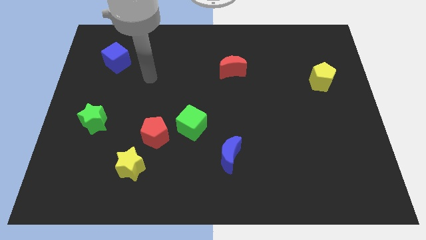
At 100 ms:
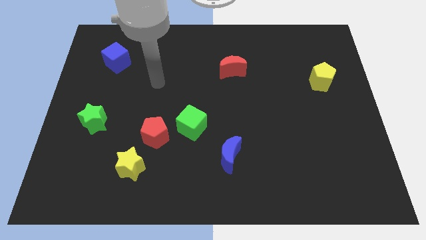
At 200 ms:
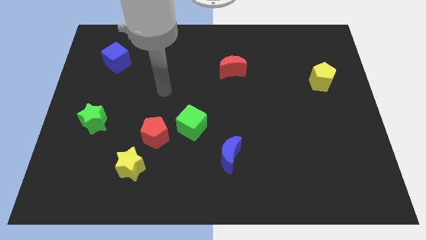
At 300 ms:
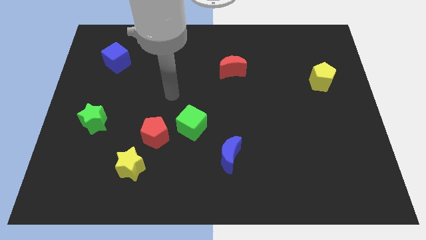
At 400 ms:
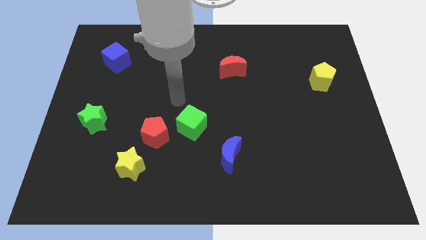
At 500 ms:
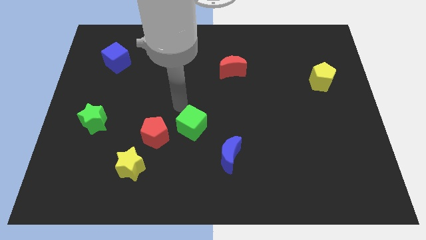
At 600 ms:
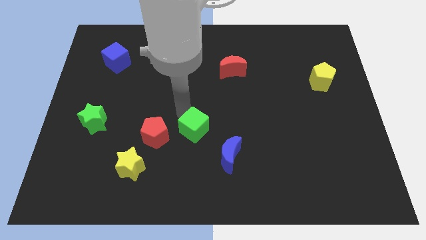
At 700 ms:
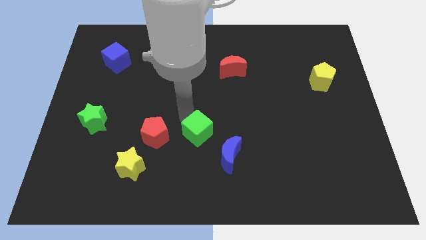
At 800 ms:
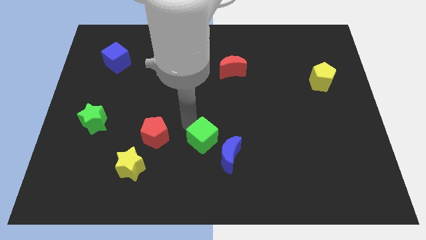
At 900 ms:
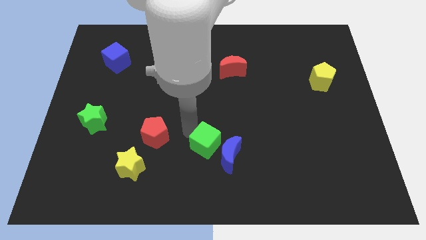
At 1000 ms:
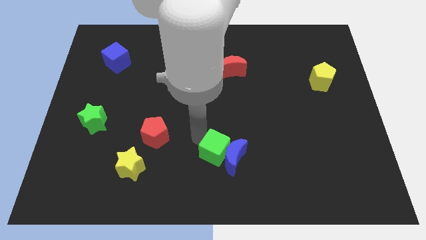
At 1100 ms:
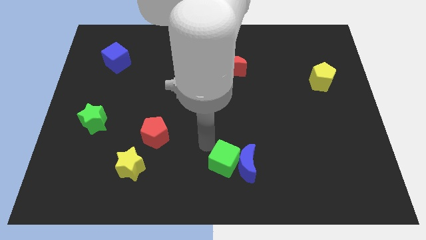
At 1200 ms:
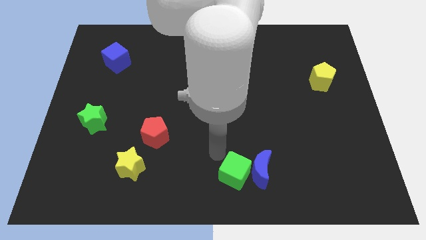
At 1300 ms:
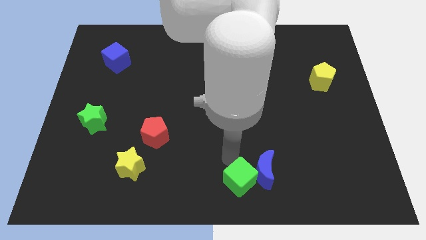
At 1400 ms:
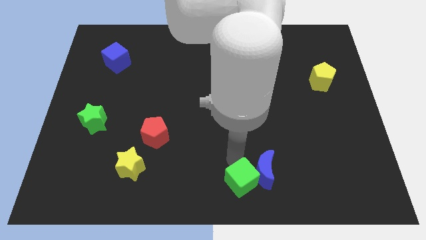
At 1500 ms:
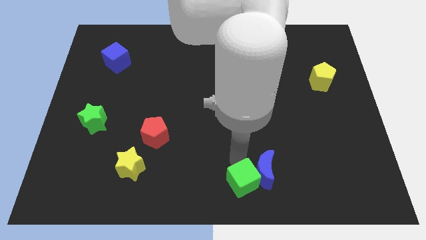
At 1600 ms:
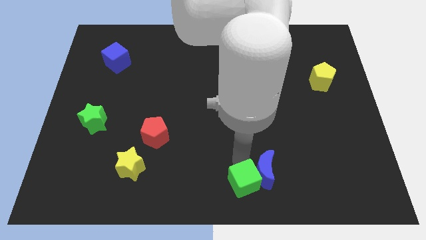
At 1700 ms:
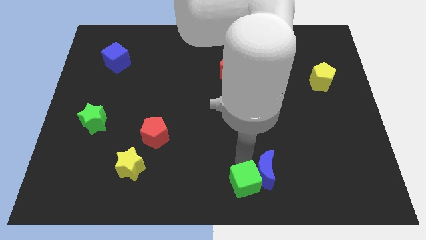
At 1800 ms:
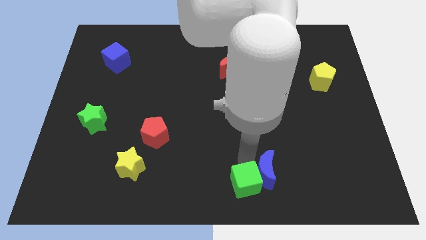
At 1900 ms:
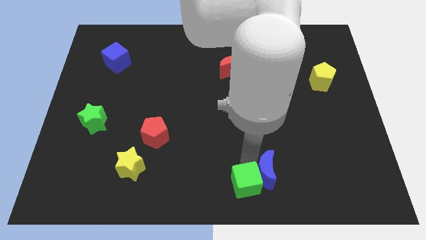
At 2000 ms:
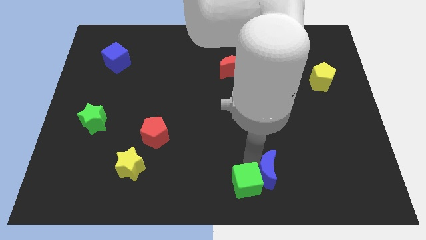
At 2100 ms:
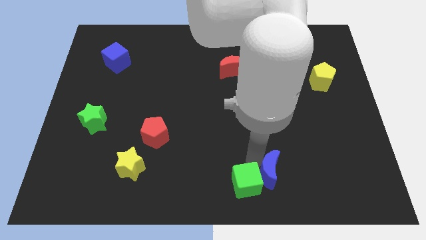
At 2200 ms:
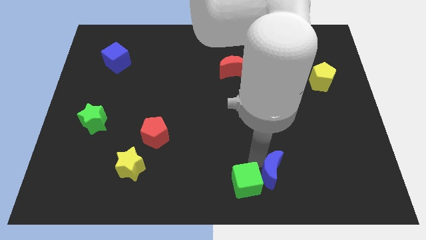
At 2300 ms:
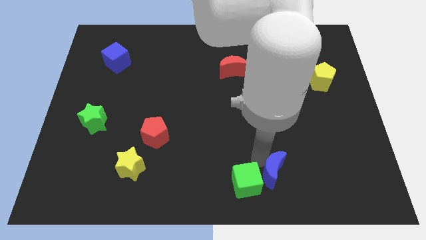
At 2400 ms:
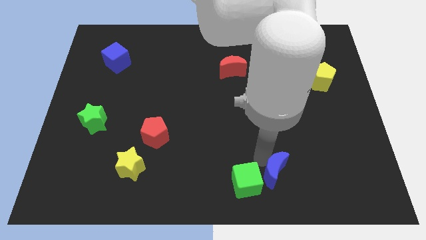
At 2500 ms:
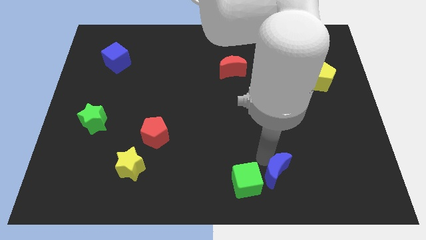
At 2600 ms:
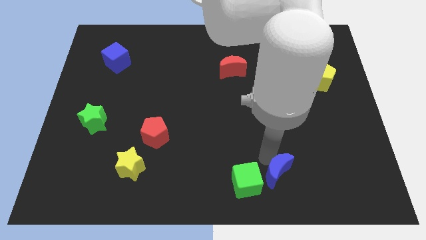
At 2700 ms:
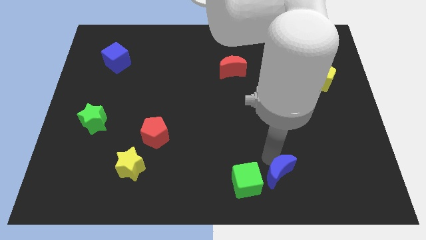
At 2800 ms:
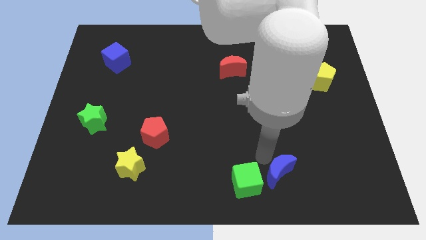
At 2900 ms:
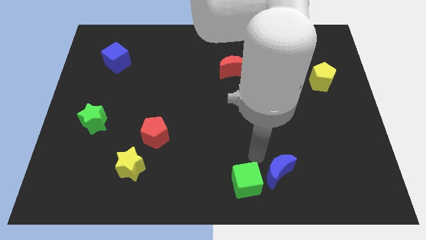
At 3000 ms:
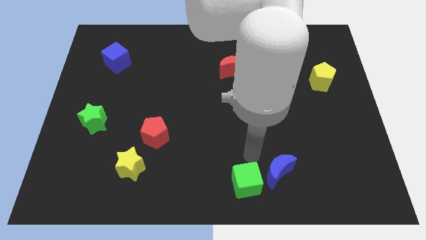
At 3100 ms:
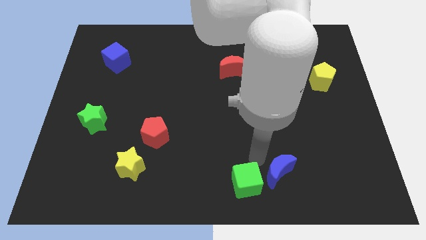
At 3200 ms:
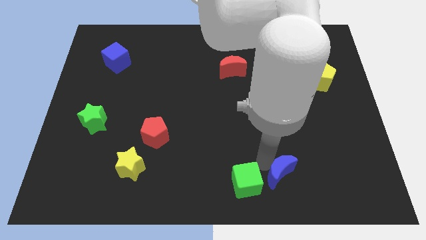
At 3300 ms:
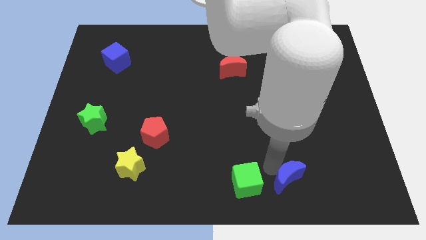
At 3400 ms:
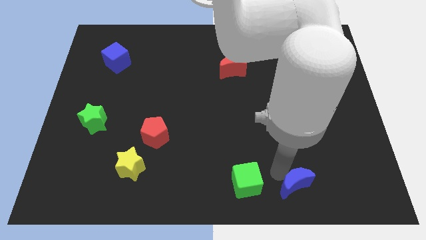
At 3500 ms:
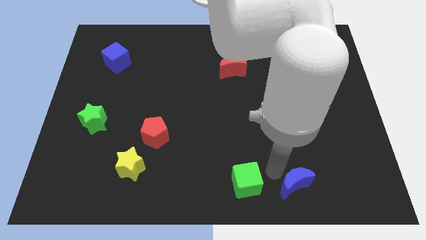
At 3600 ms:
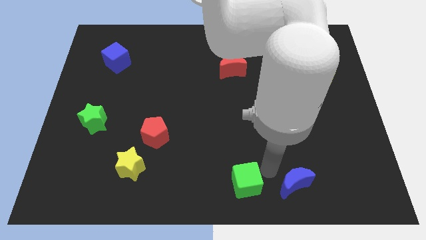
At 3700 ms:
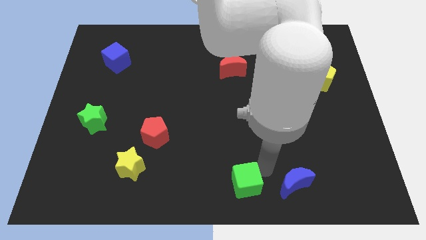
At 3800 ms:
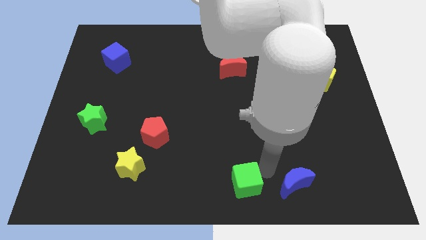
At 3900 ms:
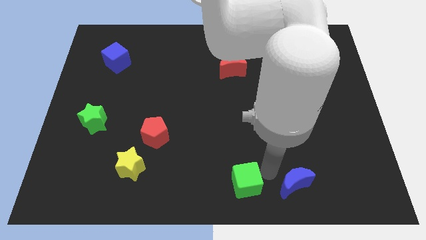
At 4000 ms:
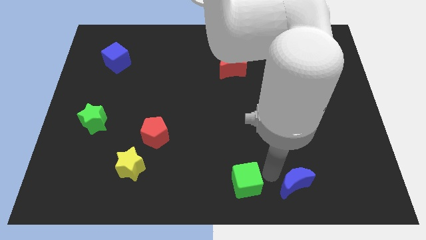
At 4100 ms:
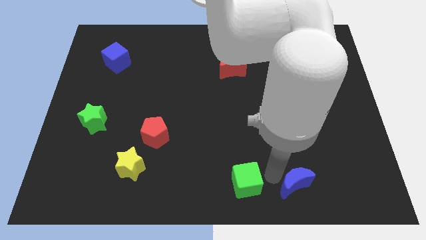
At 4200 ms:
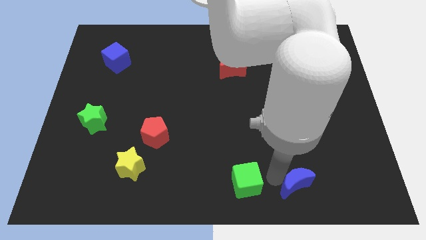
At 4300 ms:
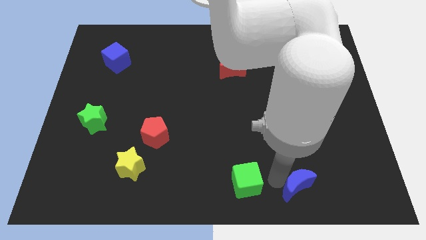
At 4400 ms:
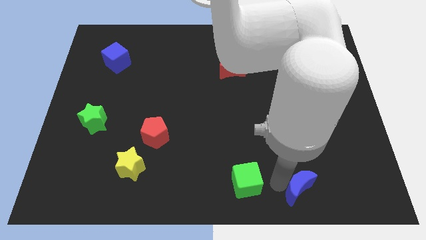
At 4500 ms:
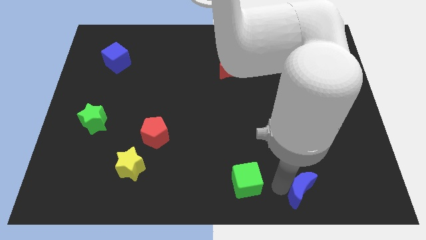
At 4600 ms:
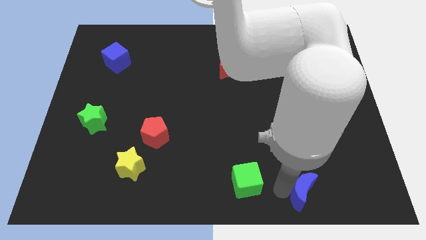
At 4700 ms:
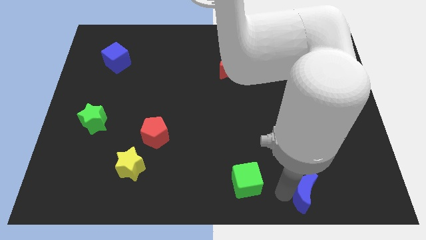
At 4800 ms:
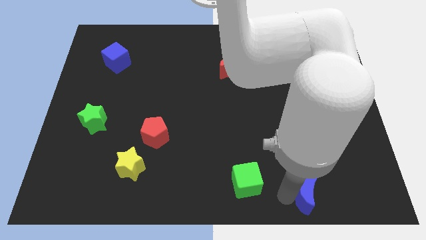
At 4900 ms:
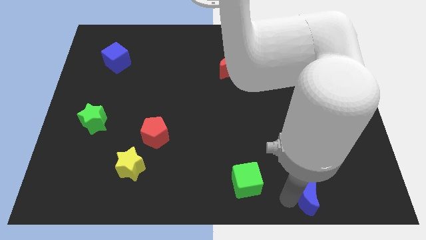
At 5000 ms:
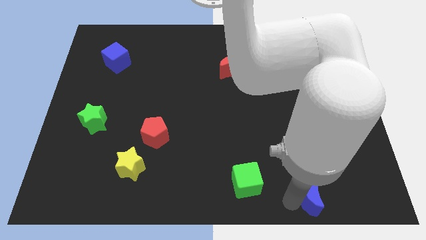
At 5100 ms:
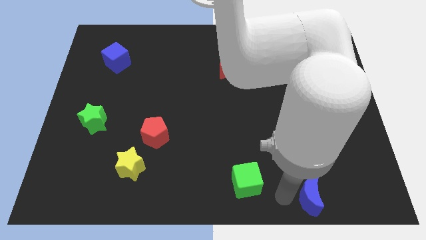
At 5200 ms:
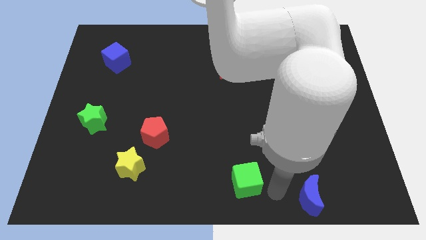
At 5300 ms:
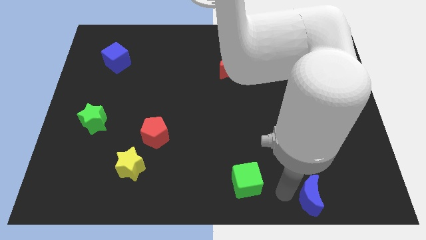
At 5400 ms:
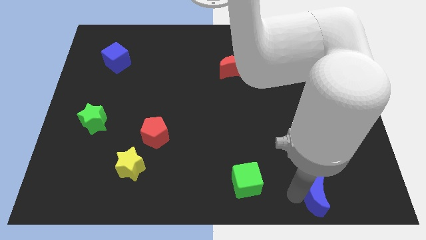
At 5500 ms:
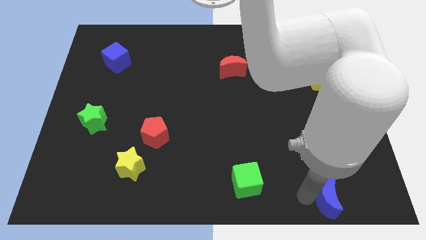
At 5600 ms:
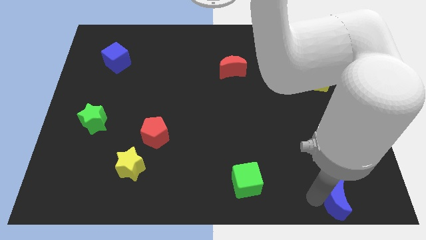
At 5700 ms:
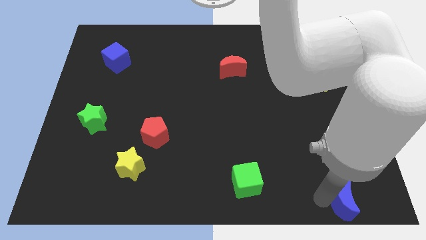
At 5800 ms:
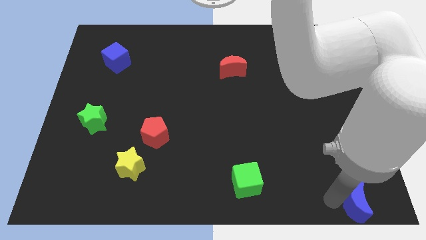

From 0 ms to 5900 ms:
put the blue moon to the bottom right corner
